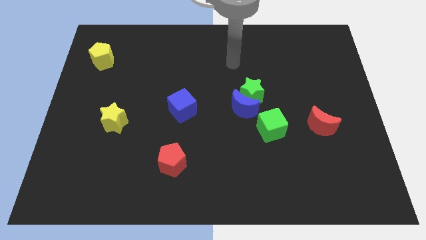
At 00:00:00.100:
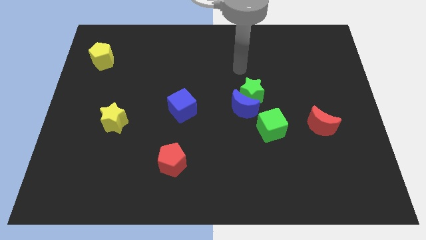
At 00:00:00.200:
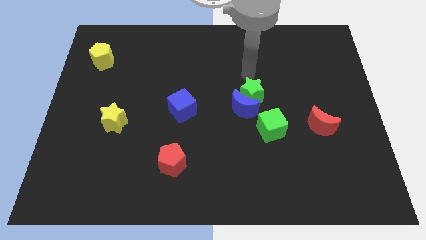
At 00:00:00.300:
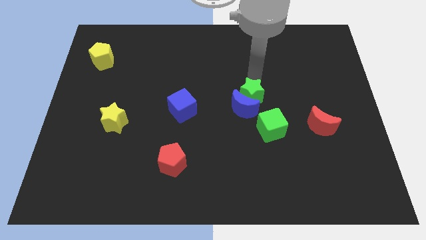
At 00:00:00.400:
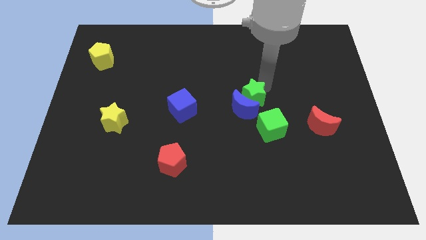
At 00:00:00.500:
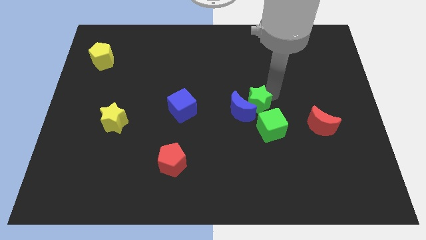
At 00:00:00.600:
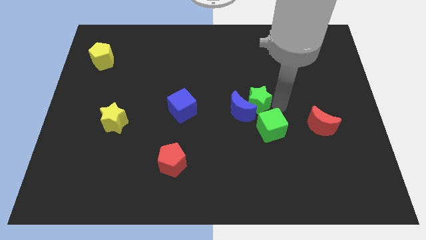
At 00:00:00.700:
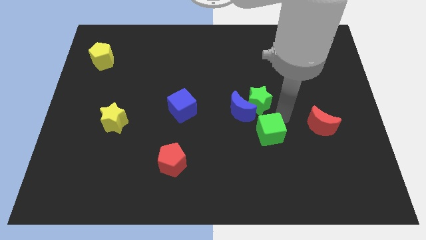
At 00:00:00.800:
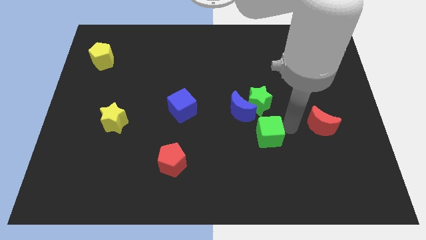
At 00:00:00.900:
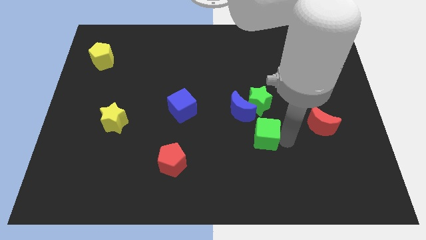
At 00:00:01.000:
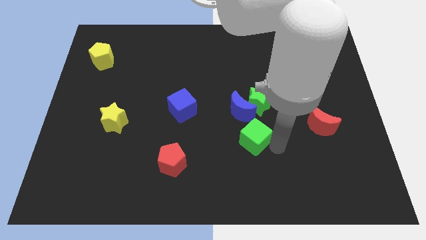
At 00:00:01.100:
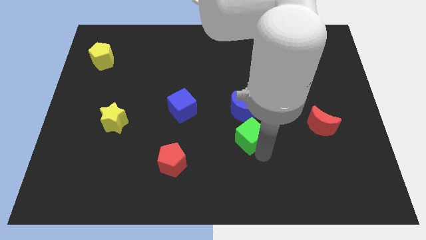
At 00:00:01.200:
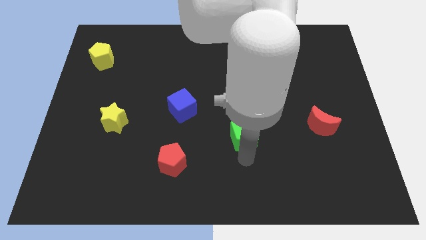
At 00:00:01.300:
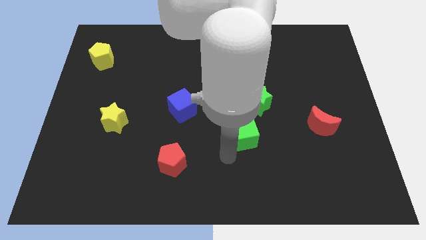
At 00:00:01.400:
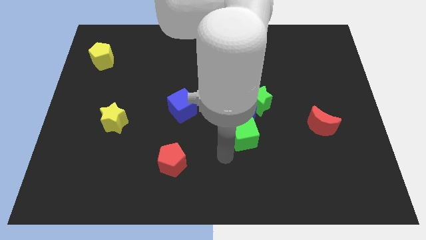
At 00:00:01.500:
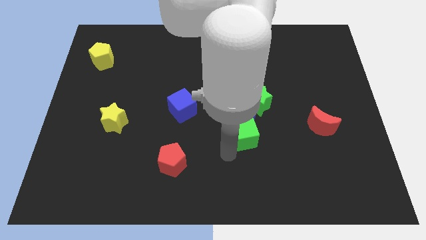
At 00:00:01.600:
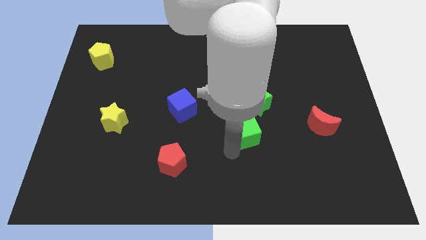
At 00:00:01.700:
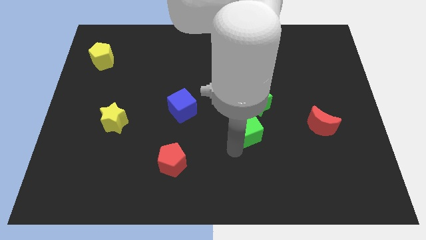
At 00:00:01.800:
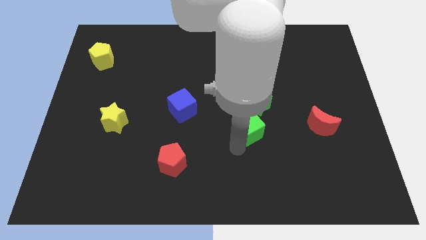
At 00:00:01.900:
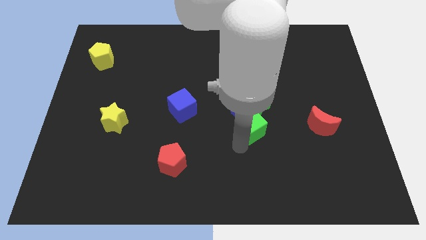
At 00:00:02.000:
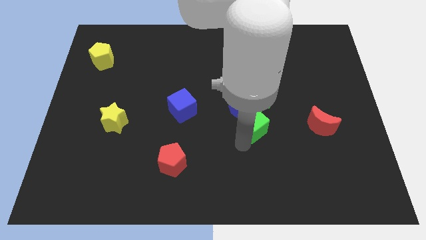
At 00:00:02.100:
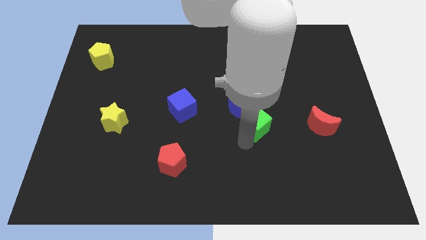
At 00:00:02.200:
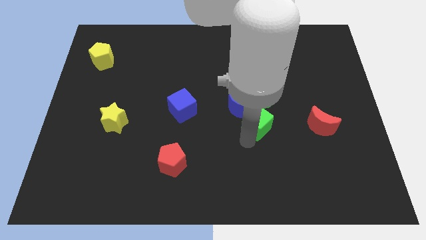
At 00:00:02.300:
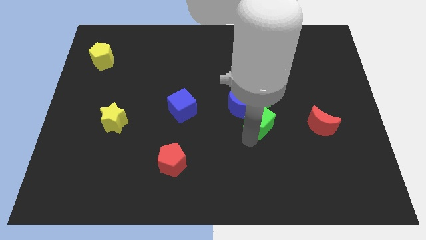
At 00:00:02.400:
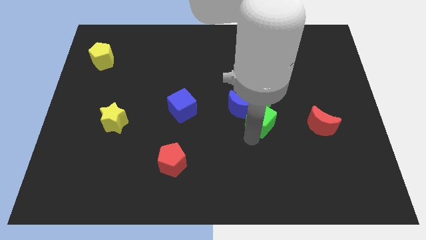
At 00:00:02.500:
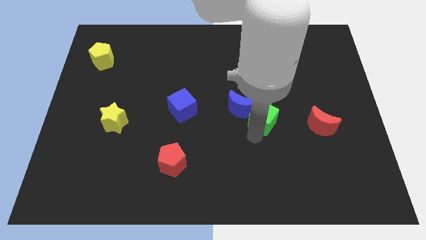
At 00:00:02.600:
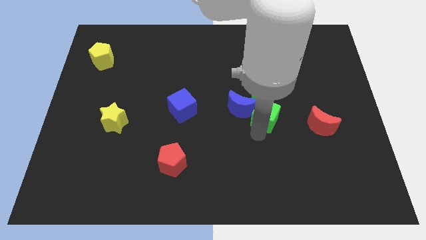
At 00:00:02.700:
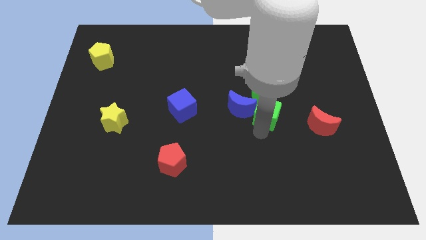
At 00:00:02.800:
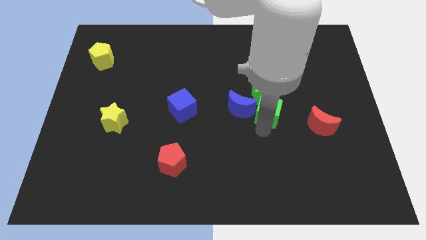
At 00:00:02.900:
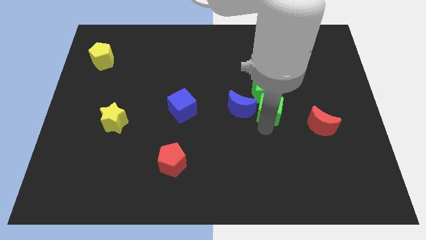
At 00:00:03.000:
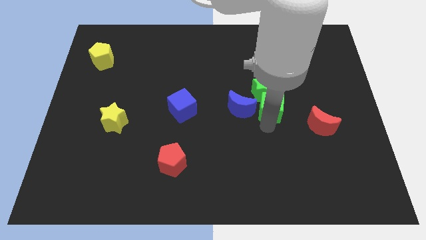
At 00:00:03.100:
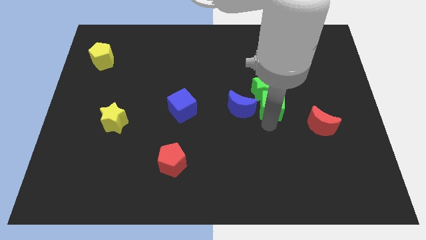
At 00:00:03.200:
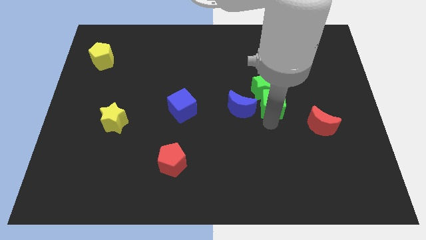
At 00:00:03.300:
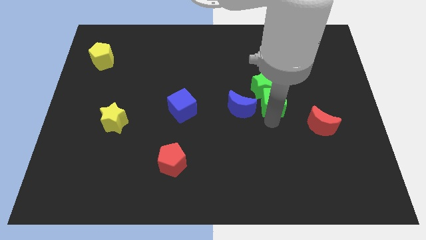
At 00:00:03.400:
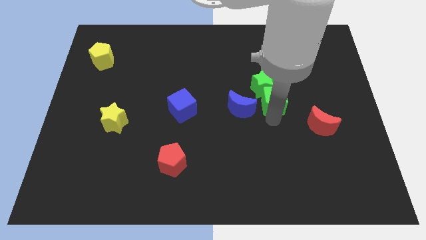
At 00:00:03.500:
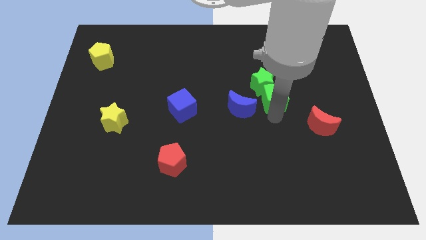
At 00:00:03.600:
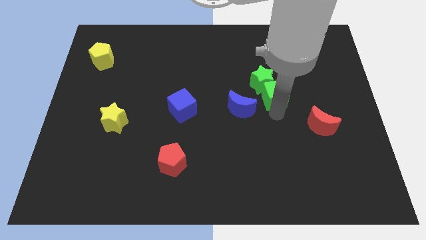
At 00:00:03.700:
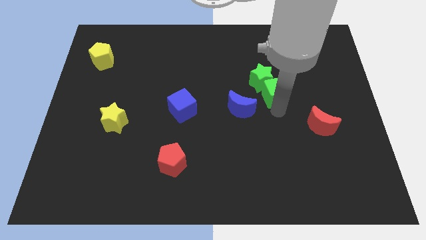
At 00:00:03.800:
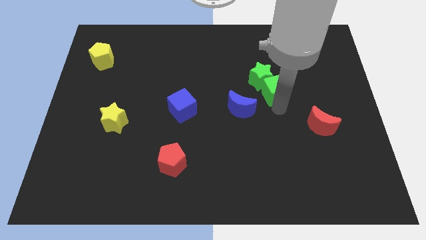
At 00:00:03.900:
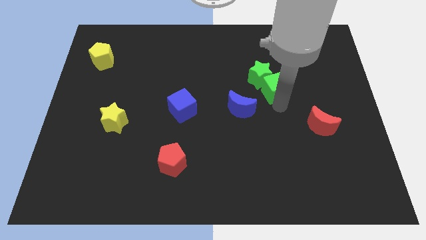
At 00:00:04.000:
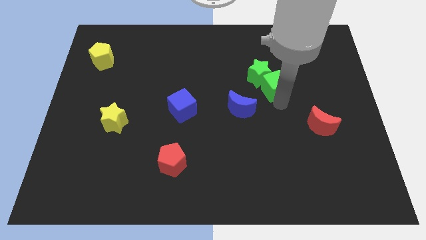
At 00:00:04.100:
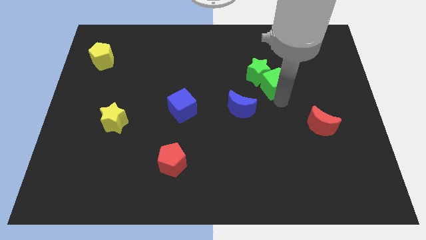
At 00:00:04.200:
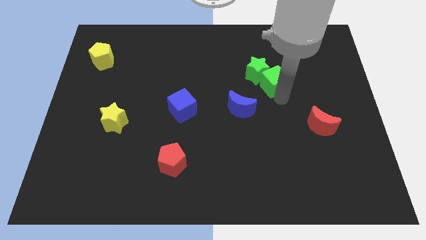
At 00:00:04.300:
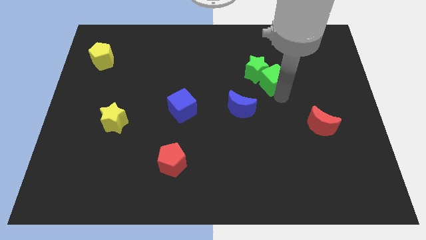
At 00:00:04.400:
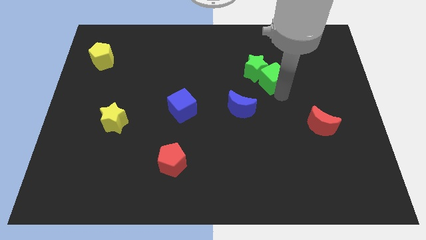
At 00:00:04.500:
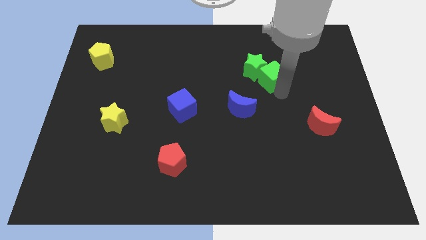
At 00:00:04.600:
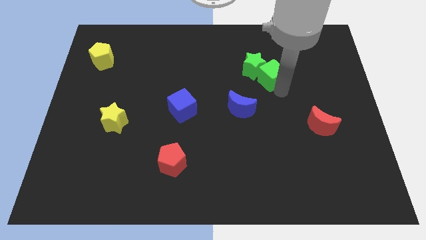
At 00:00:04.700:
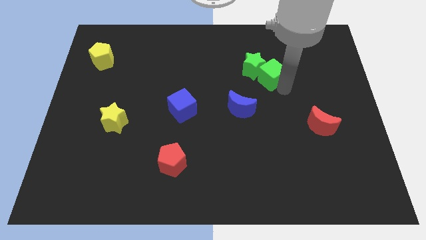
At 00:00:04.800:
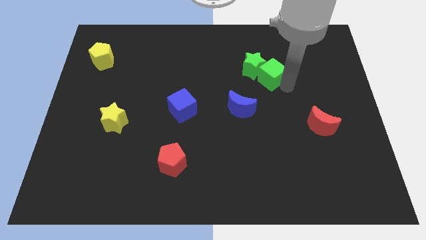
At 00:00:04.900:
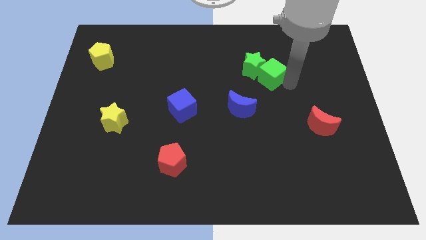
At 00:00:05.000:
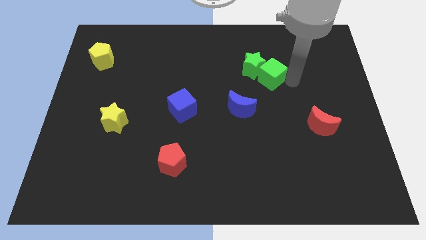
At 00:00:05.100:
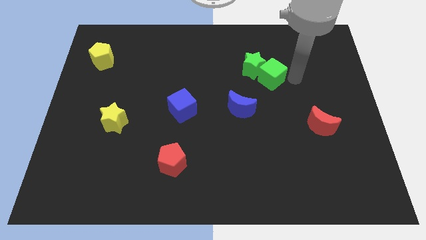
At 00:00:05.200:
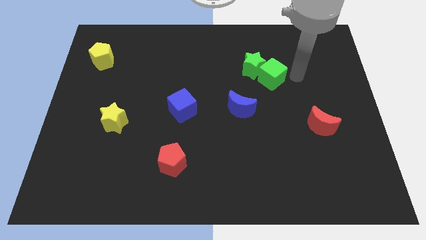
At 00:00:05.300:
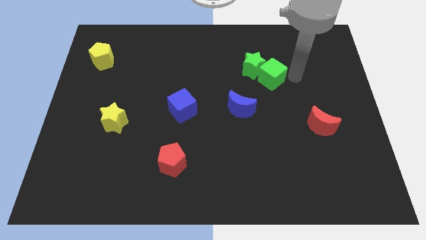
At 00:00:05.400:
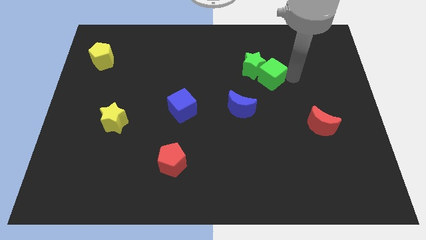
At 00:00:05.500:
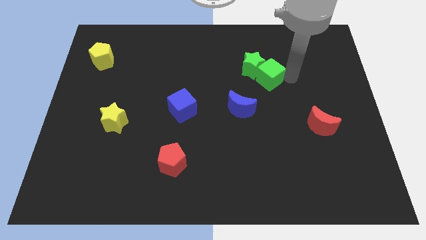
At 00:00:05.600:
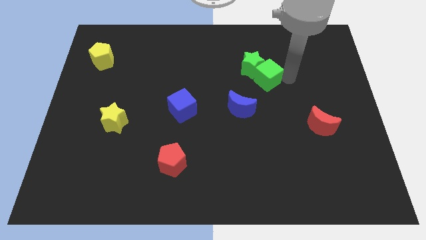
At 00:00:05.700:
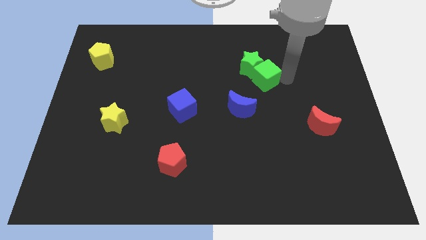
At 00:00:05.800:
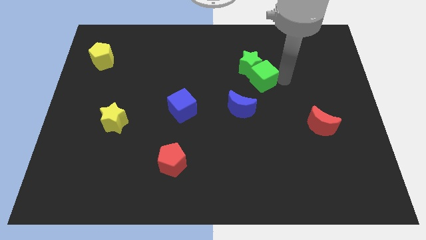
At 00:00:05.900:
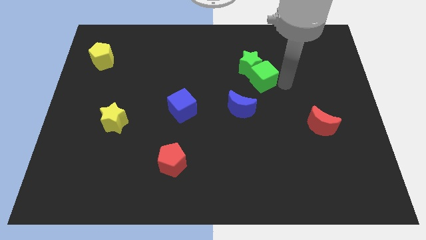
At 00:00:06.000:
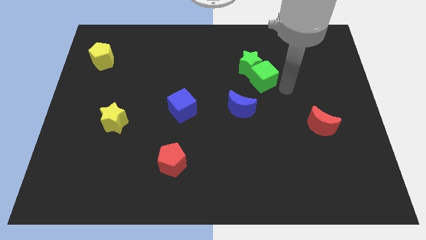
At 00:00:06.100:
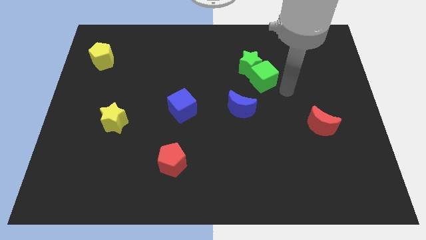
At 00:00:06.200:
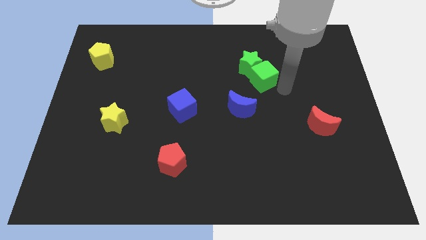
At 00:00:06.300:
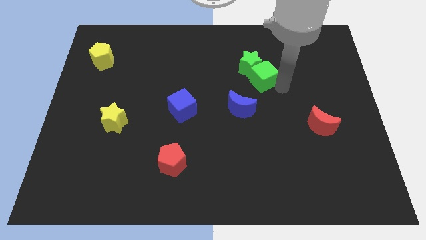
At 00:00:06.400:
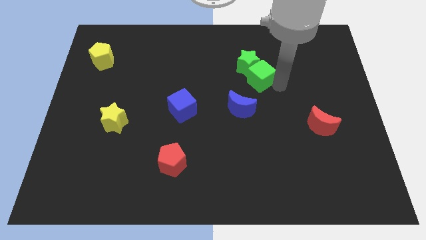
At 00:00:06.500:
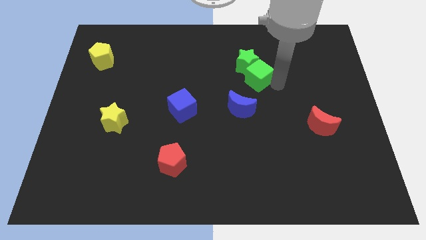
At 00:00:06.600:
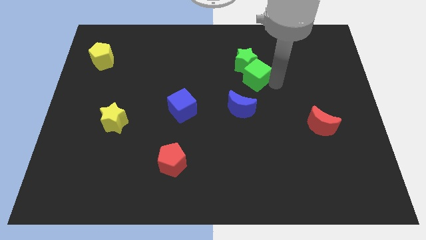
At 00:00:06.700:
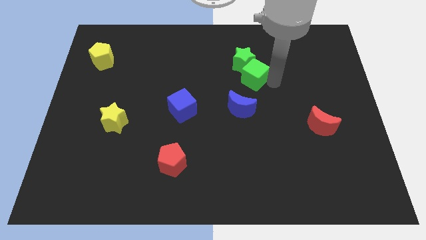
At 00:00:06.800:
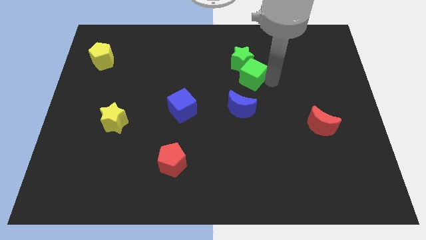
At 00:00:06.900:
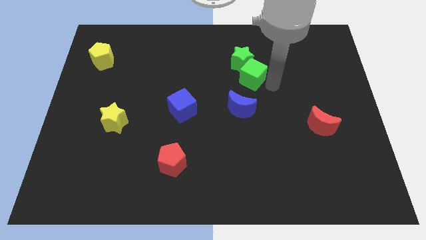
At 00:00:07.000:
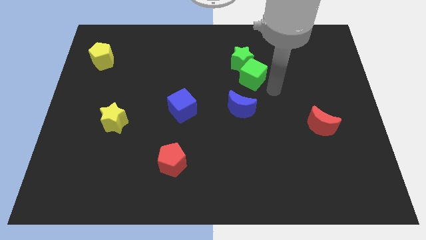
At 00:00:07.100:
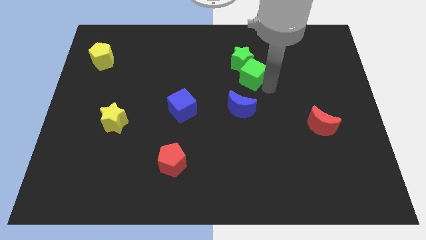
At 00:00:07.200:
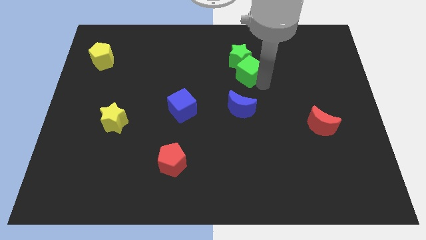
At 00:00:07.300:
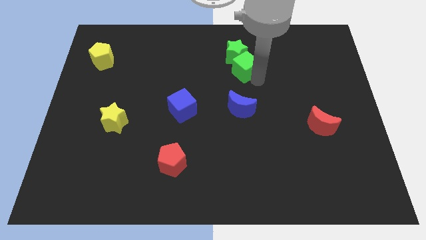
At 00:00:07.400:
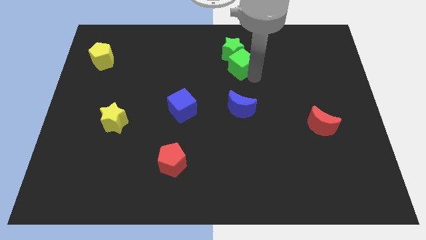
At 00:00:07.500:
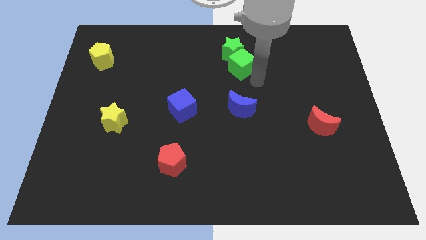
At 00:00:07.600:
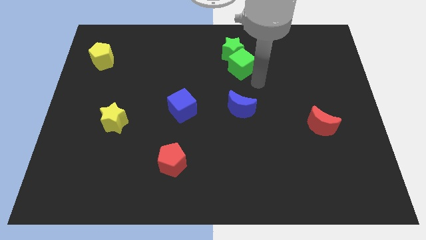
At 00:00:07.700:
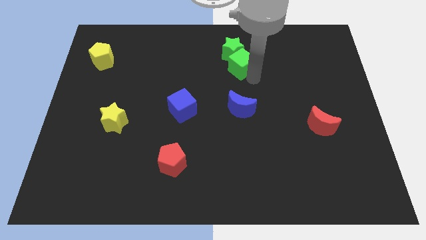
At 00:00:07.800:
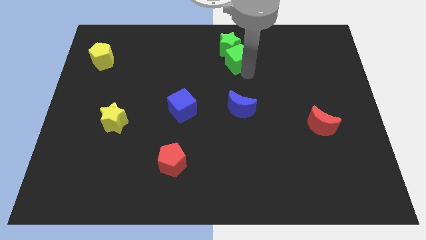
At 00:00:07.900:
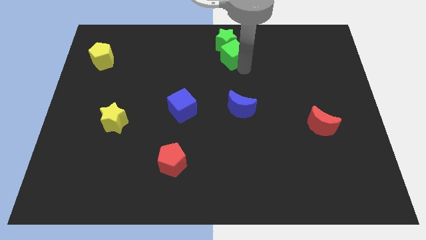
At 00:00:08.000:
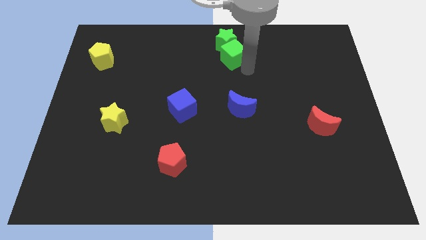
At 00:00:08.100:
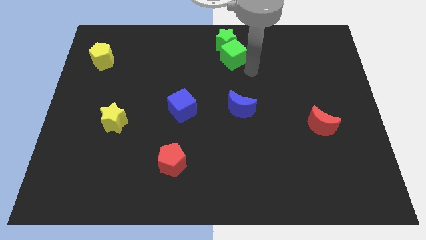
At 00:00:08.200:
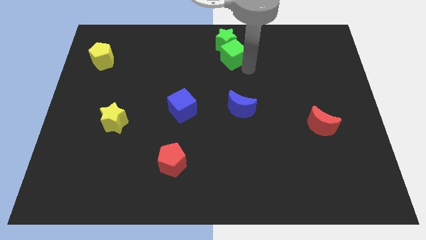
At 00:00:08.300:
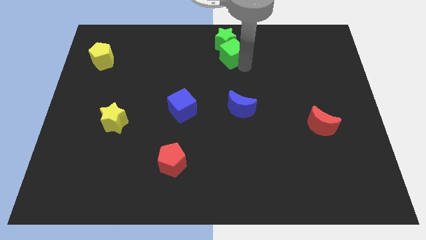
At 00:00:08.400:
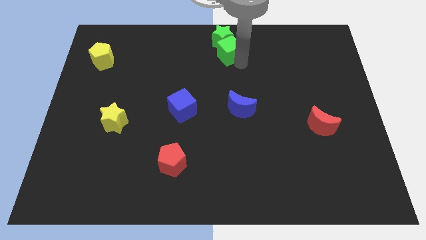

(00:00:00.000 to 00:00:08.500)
move the green cube to the top
